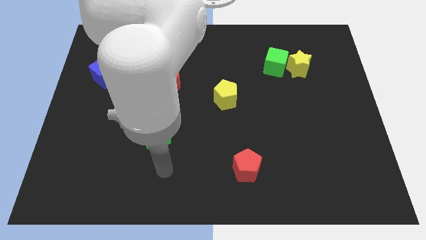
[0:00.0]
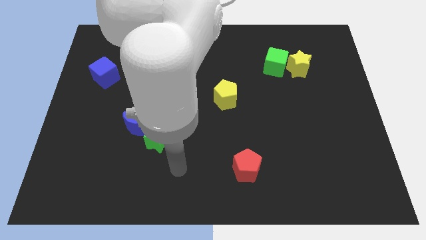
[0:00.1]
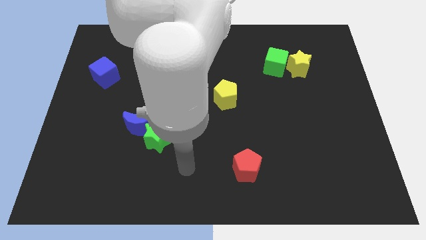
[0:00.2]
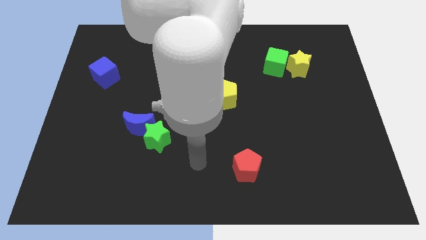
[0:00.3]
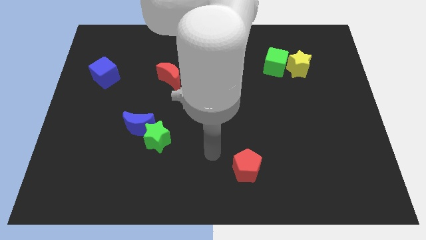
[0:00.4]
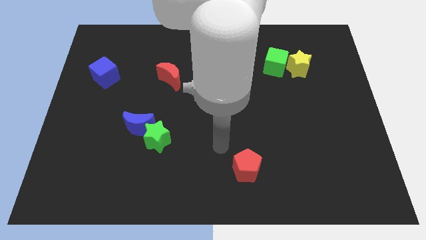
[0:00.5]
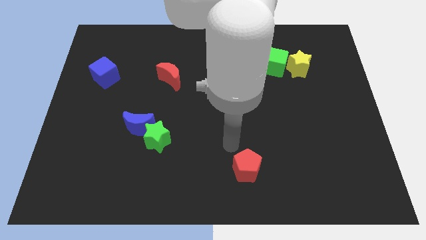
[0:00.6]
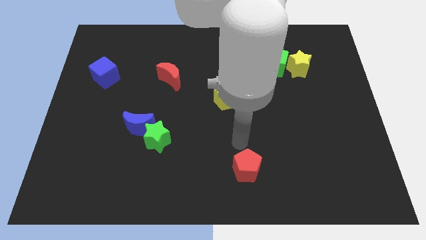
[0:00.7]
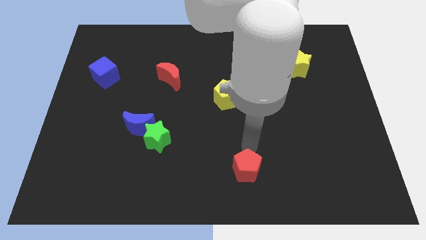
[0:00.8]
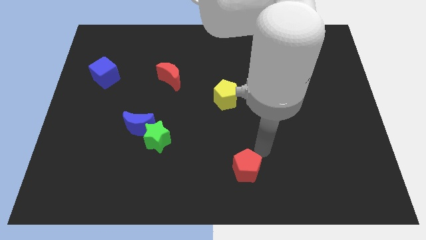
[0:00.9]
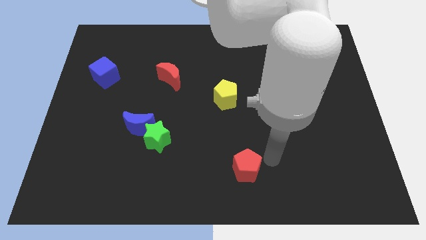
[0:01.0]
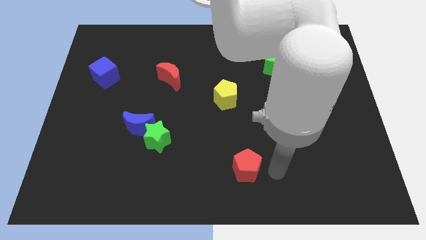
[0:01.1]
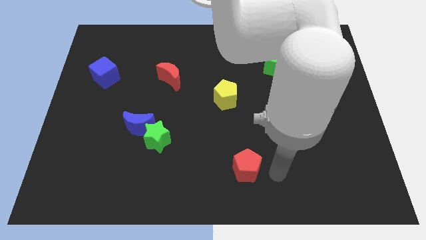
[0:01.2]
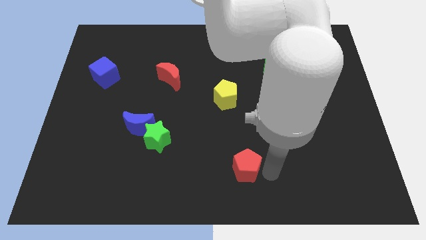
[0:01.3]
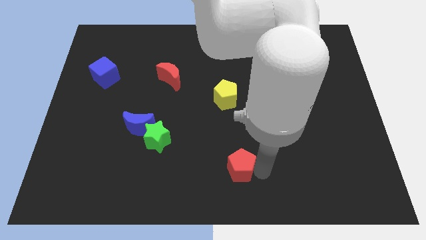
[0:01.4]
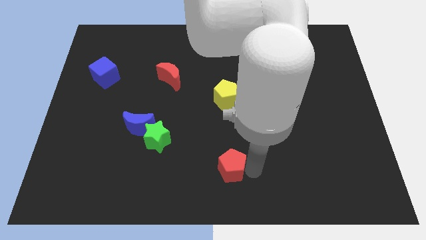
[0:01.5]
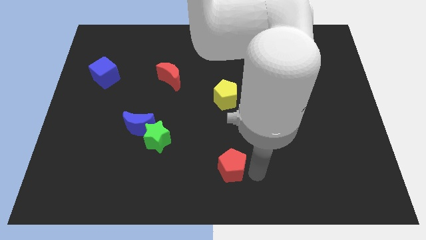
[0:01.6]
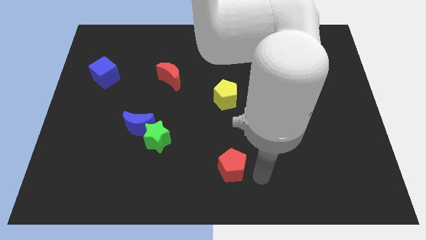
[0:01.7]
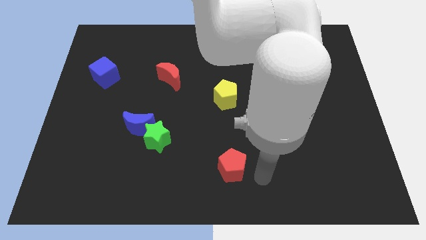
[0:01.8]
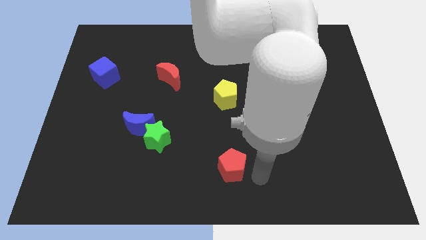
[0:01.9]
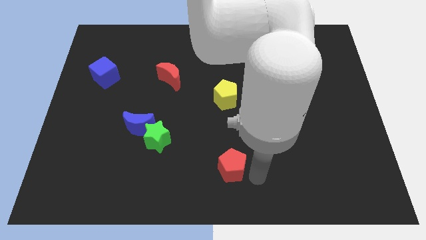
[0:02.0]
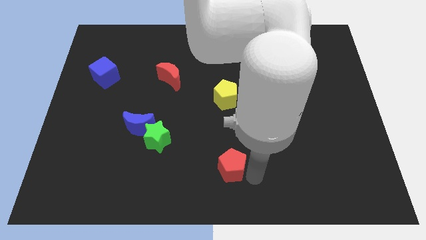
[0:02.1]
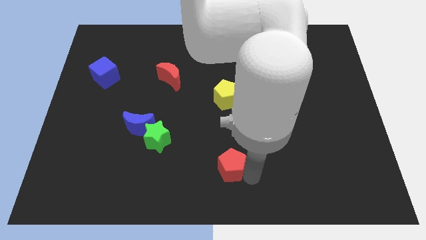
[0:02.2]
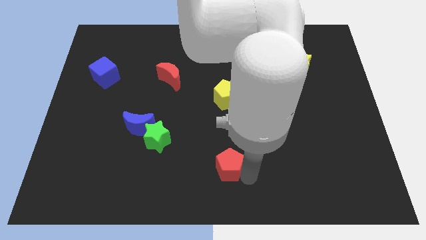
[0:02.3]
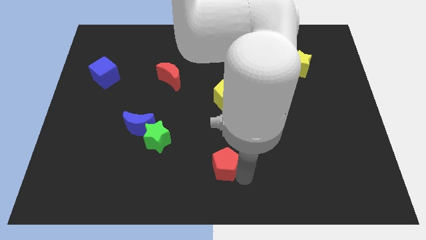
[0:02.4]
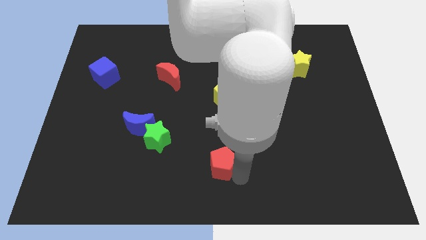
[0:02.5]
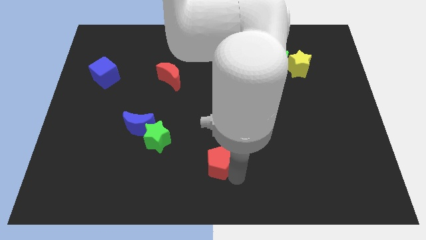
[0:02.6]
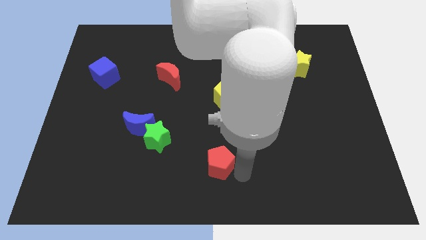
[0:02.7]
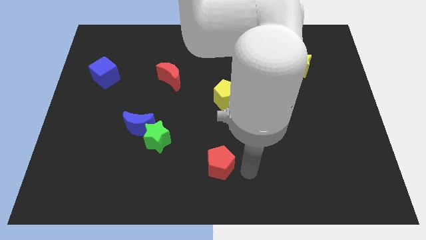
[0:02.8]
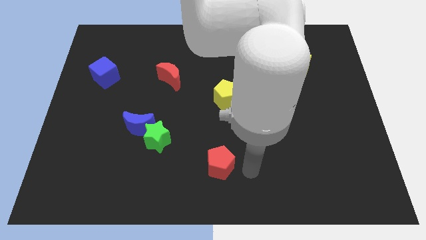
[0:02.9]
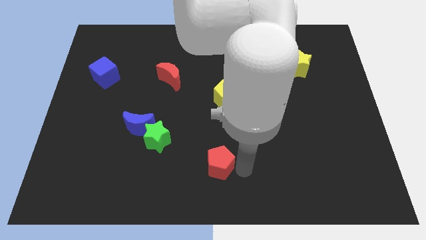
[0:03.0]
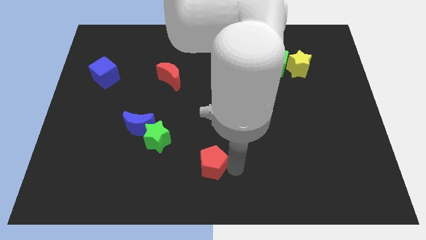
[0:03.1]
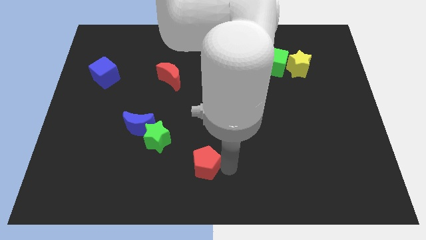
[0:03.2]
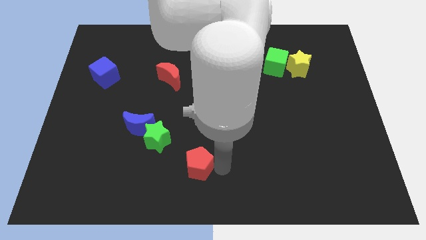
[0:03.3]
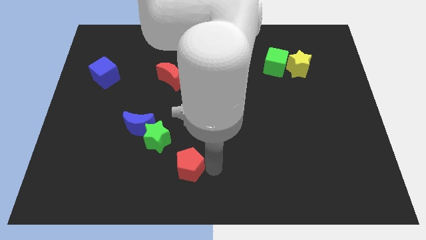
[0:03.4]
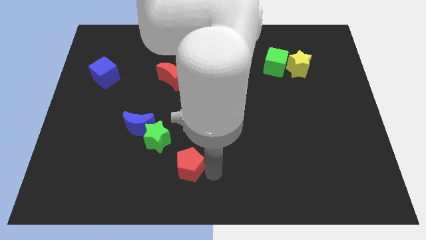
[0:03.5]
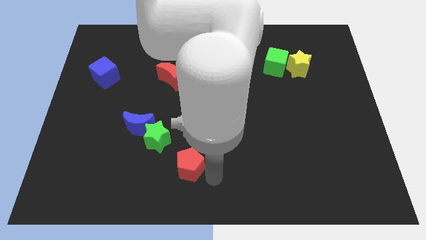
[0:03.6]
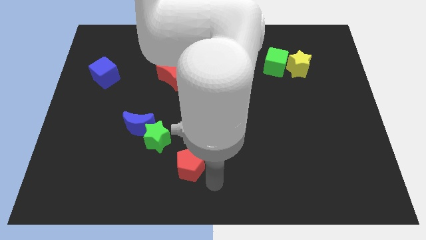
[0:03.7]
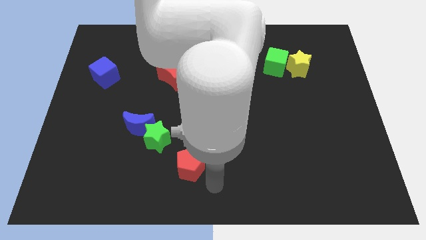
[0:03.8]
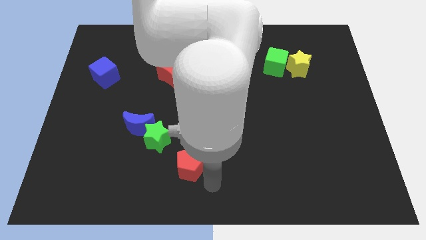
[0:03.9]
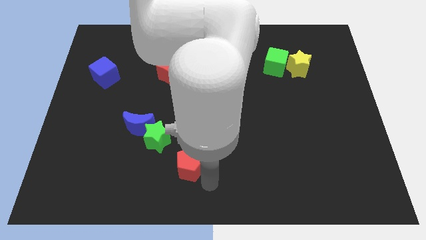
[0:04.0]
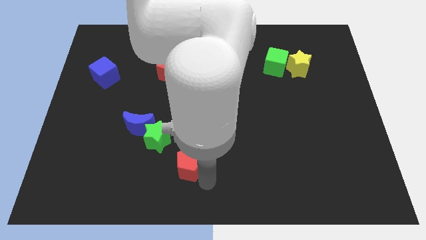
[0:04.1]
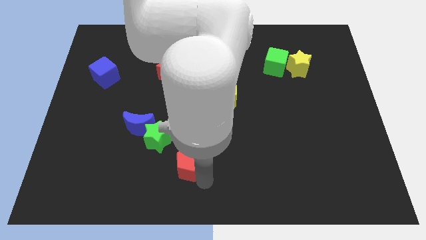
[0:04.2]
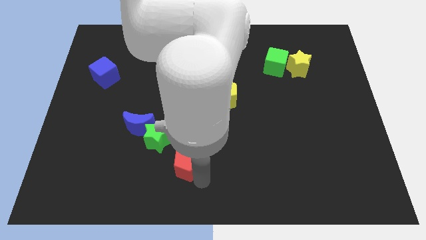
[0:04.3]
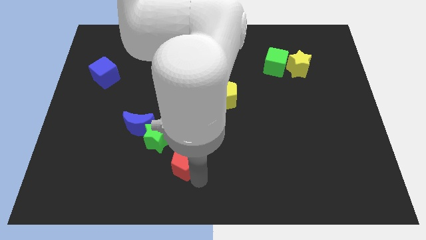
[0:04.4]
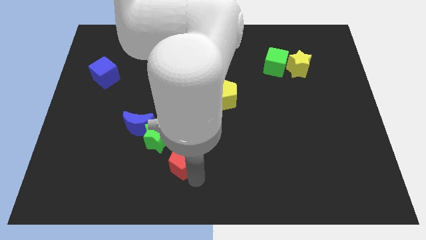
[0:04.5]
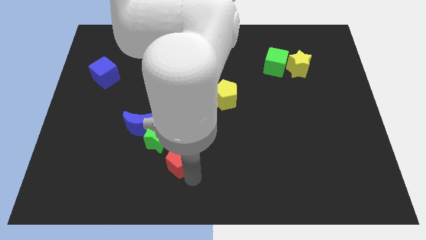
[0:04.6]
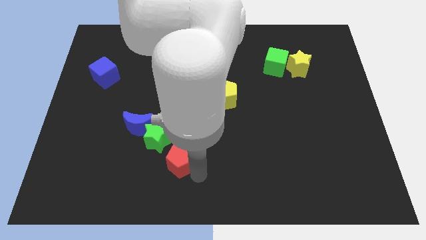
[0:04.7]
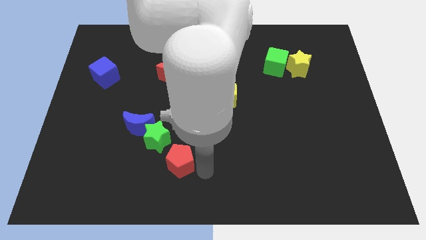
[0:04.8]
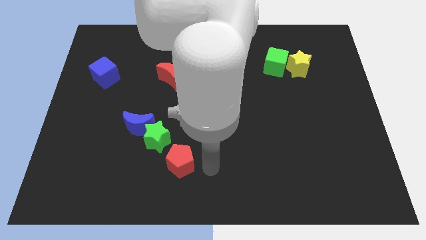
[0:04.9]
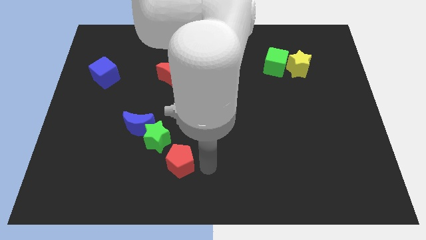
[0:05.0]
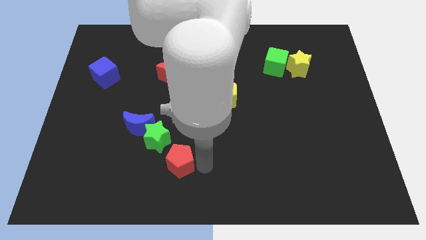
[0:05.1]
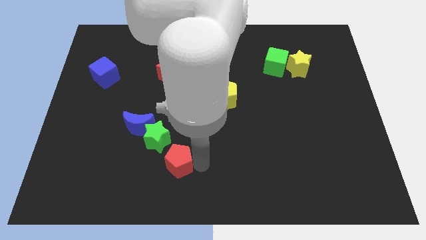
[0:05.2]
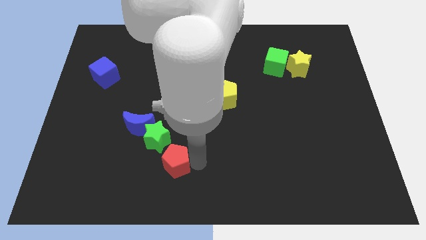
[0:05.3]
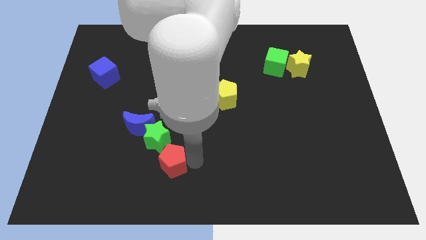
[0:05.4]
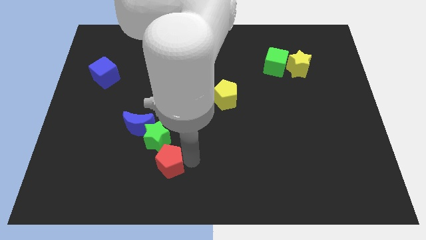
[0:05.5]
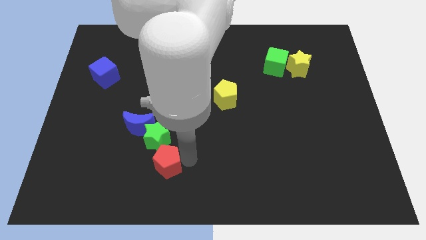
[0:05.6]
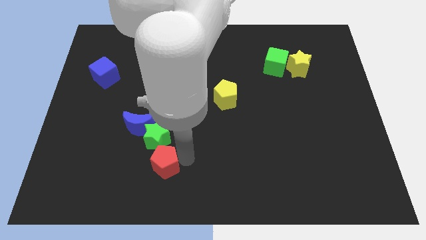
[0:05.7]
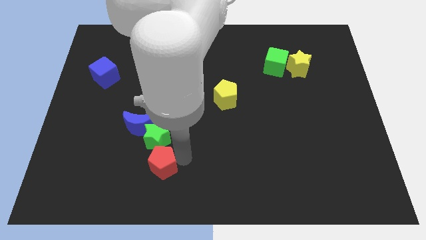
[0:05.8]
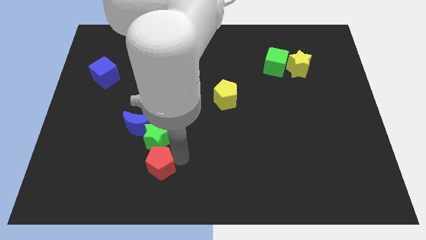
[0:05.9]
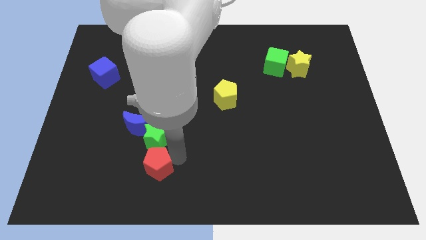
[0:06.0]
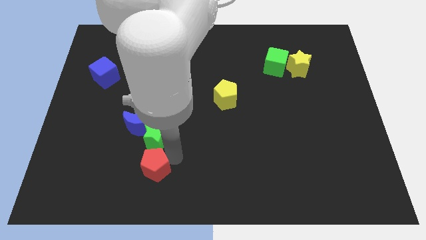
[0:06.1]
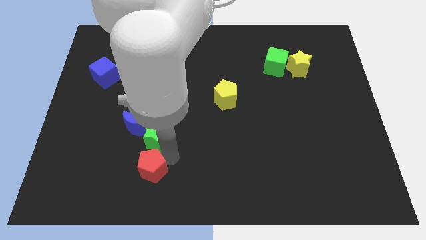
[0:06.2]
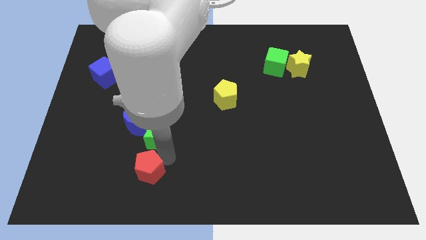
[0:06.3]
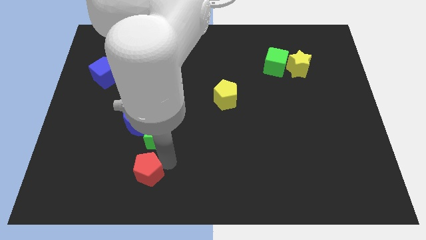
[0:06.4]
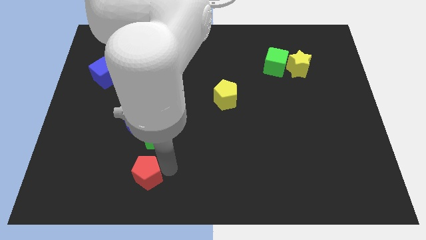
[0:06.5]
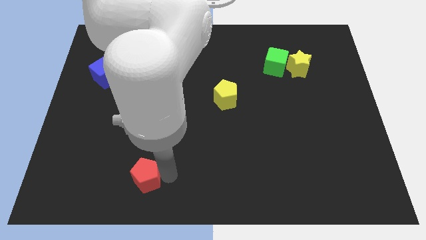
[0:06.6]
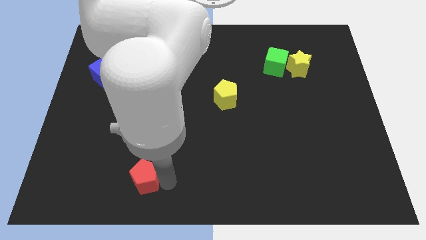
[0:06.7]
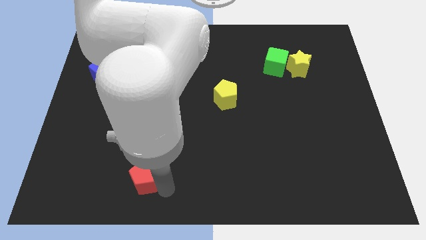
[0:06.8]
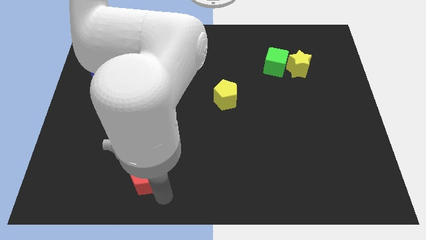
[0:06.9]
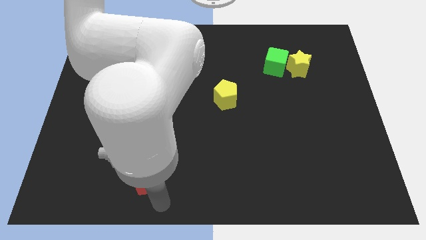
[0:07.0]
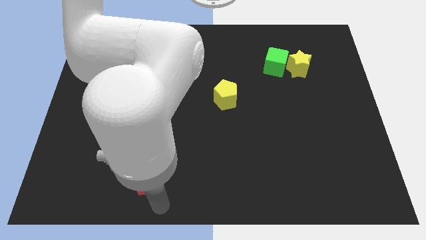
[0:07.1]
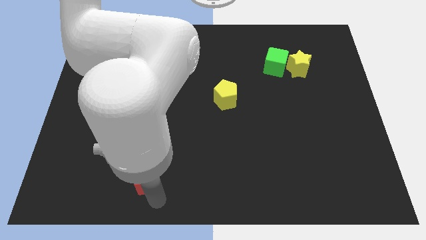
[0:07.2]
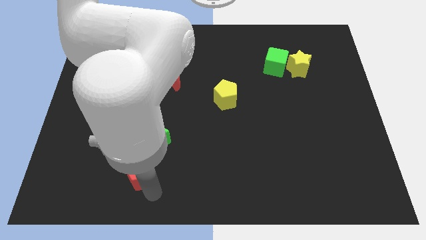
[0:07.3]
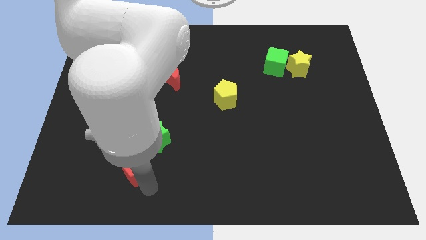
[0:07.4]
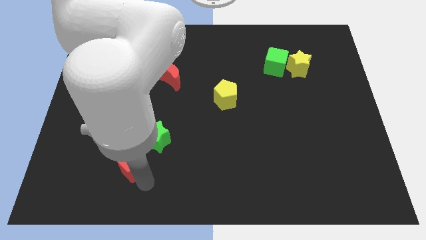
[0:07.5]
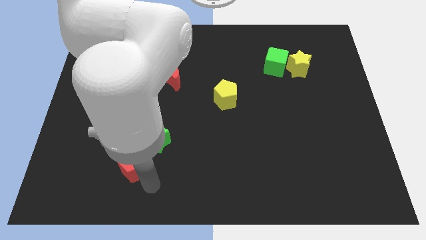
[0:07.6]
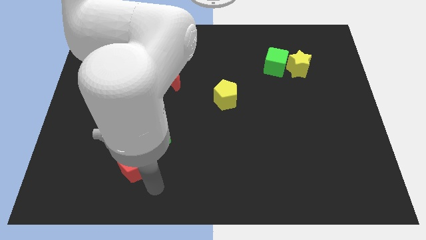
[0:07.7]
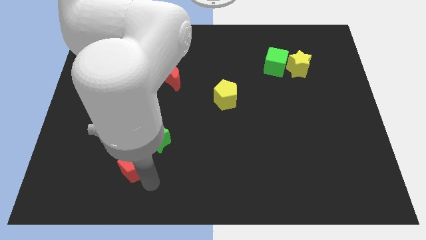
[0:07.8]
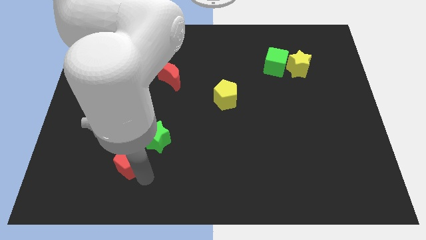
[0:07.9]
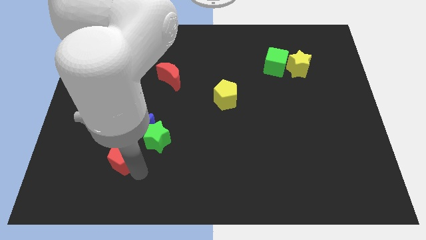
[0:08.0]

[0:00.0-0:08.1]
put the red pentagon diagonally down and to the left of the blue moon
